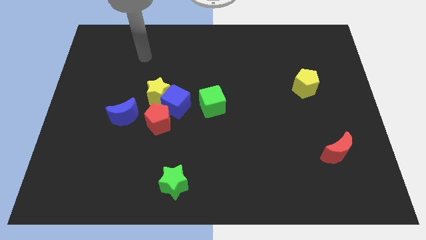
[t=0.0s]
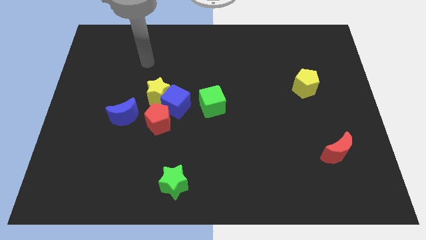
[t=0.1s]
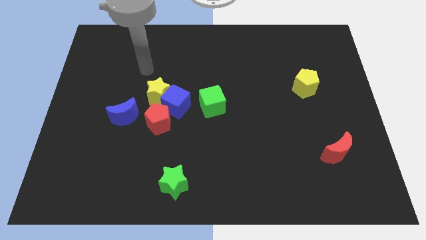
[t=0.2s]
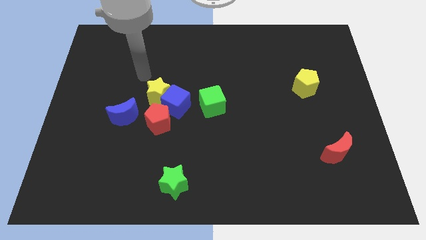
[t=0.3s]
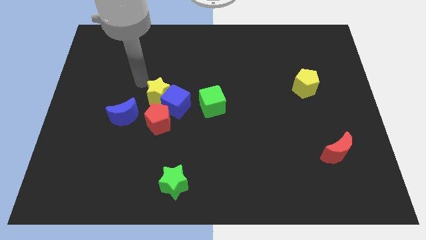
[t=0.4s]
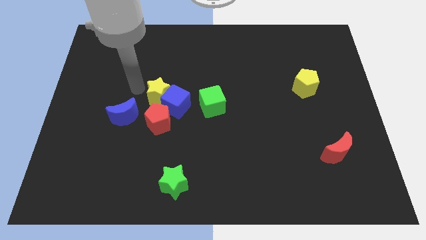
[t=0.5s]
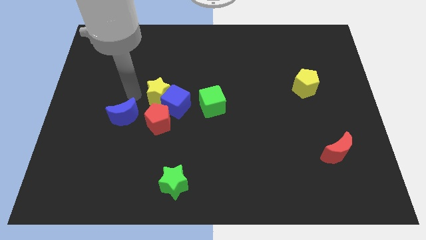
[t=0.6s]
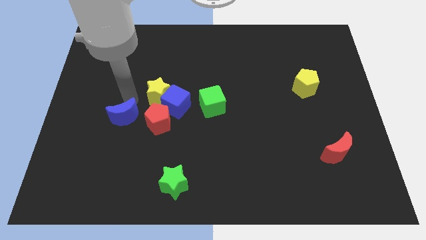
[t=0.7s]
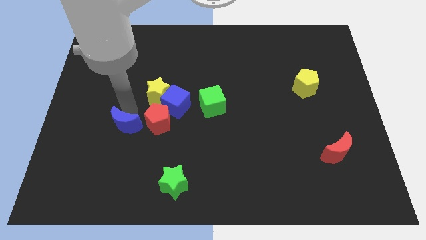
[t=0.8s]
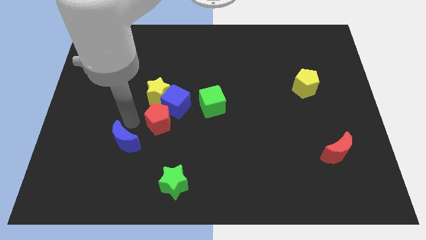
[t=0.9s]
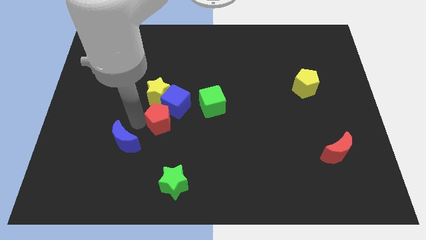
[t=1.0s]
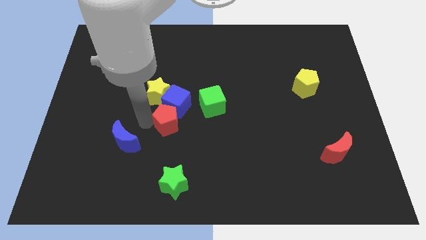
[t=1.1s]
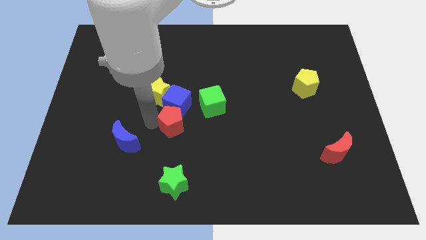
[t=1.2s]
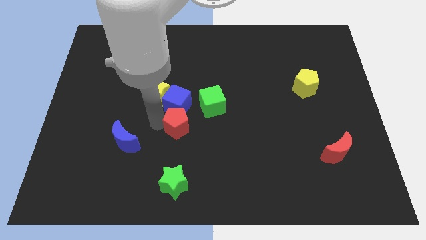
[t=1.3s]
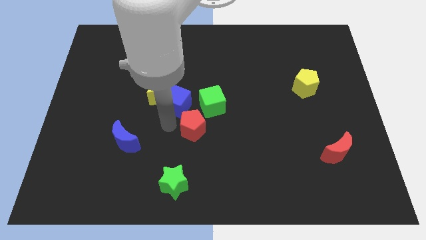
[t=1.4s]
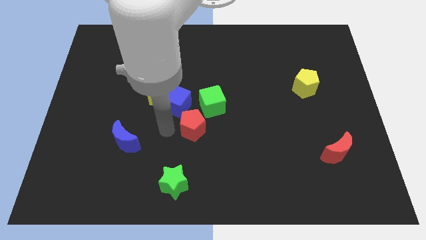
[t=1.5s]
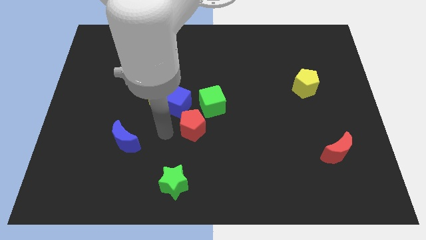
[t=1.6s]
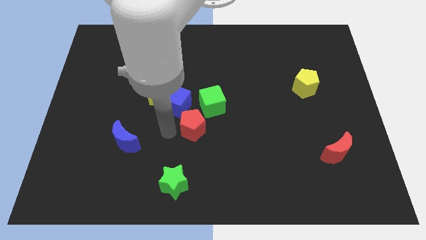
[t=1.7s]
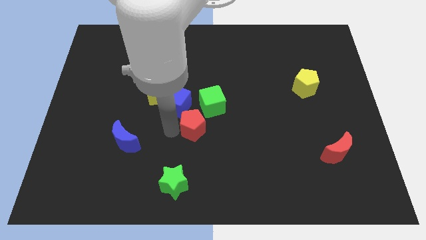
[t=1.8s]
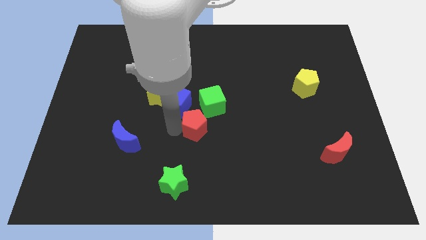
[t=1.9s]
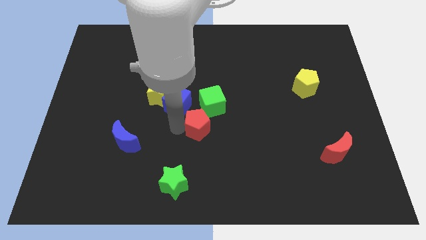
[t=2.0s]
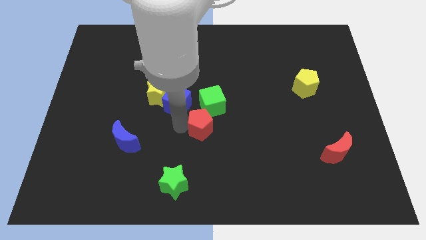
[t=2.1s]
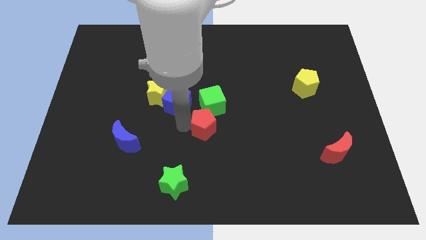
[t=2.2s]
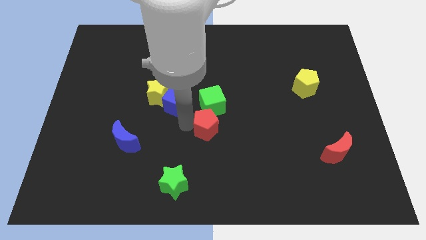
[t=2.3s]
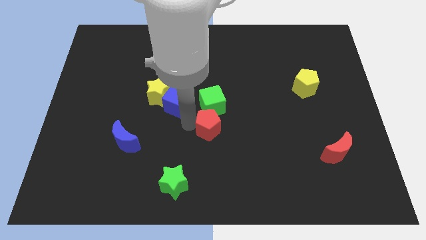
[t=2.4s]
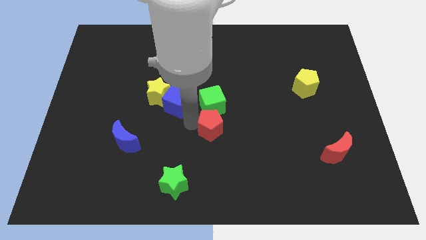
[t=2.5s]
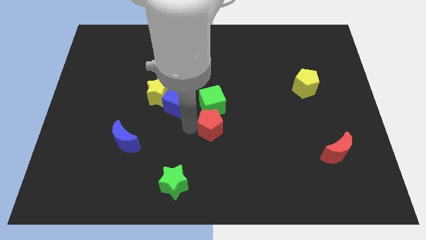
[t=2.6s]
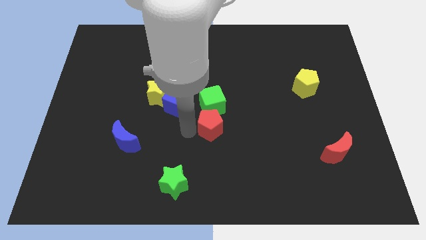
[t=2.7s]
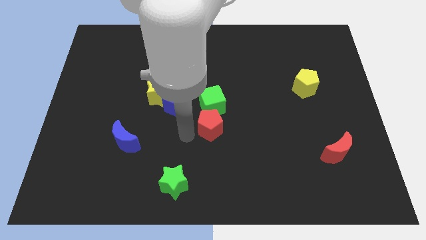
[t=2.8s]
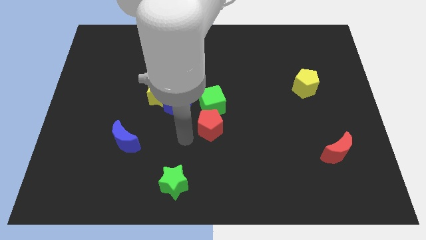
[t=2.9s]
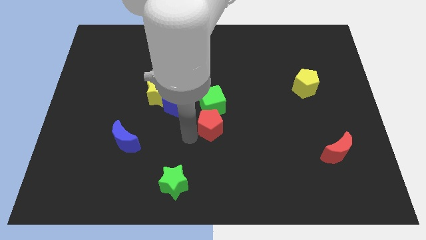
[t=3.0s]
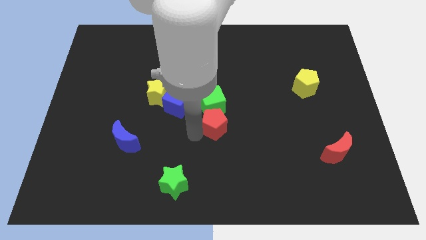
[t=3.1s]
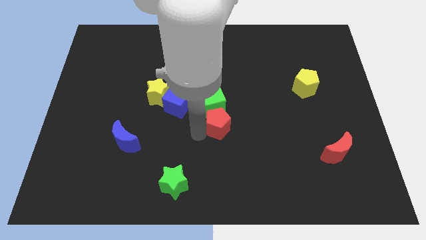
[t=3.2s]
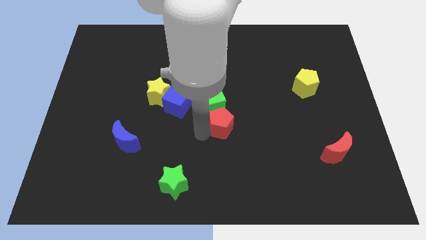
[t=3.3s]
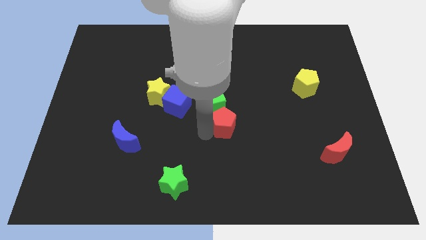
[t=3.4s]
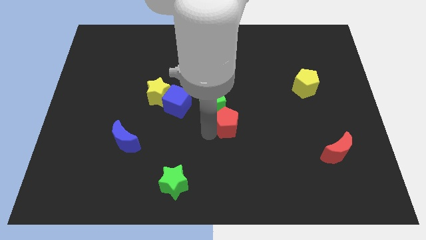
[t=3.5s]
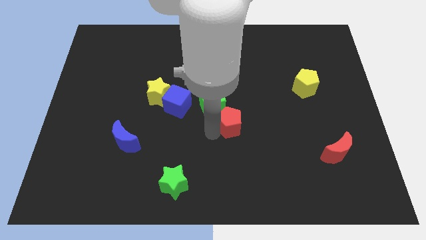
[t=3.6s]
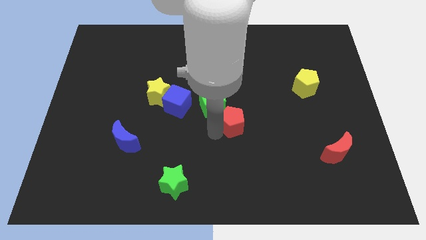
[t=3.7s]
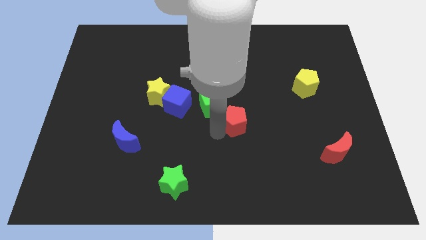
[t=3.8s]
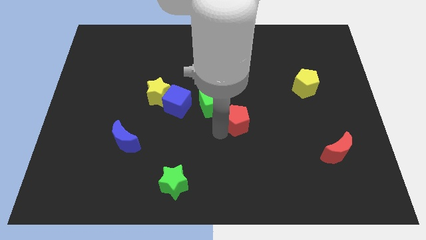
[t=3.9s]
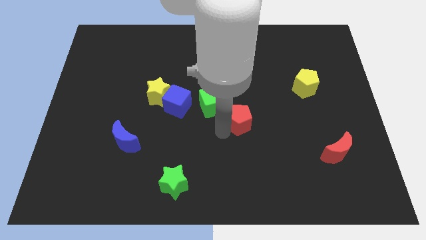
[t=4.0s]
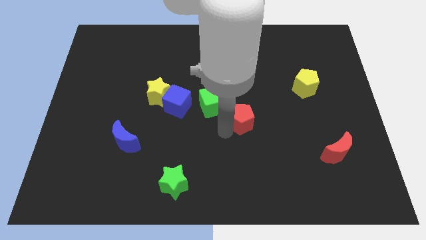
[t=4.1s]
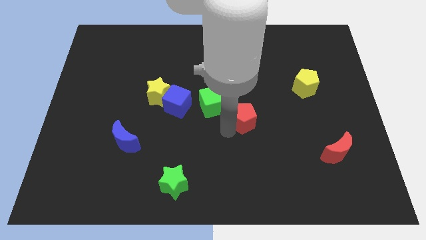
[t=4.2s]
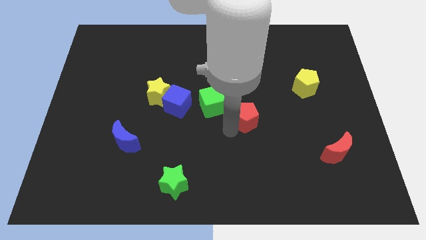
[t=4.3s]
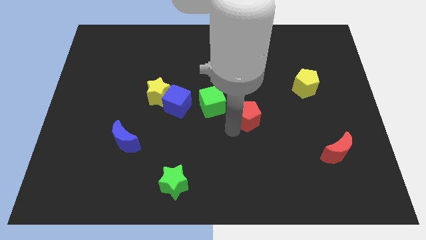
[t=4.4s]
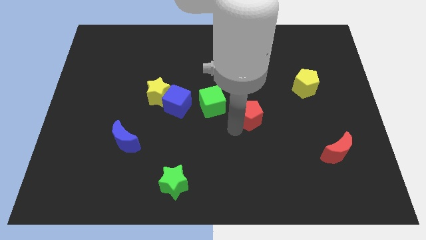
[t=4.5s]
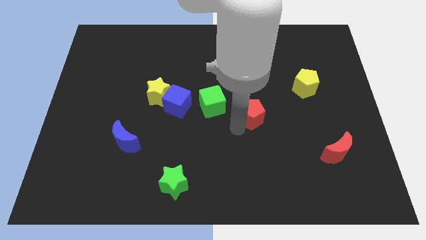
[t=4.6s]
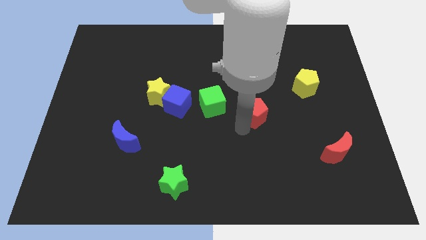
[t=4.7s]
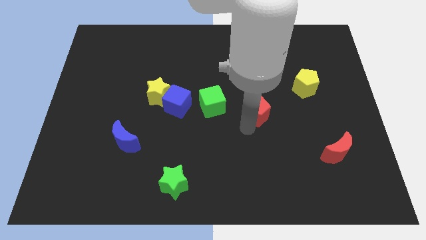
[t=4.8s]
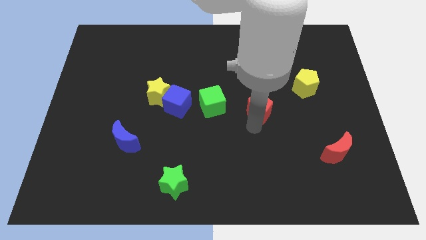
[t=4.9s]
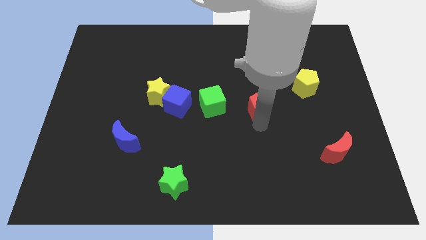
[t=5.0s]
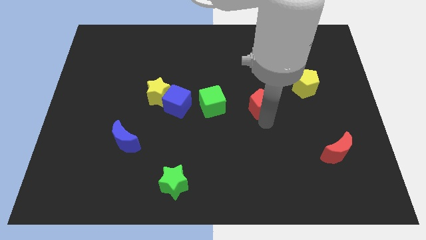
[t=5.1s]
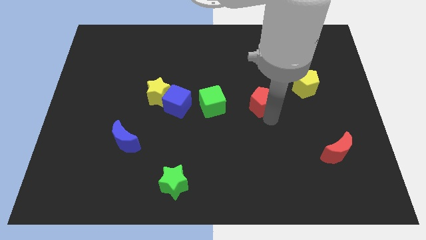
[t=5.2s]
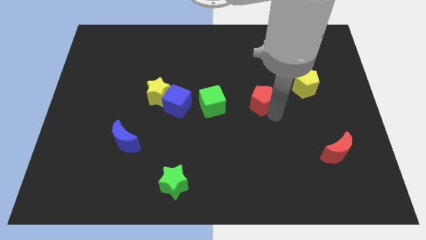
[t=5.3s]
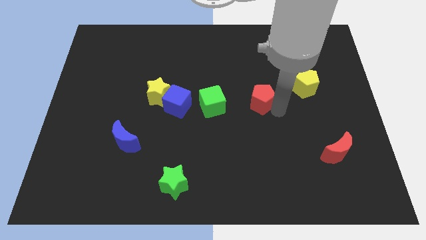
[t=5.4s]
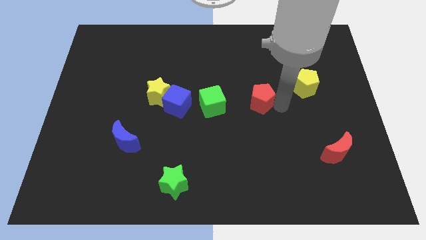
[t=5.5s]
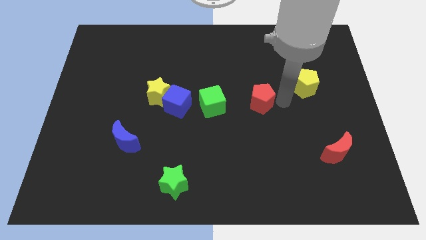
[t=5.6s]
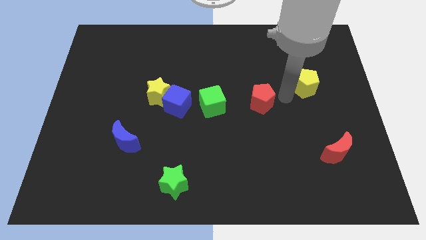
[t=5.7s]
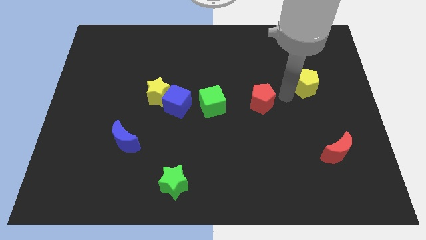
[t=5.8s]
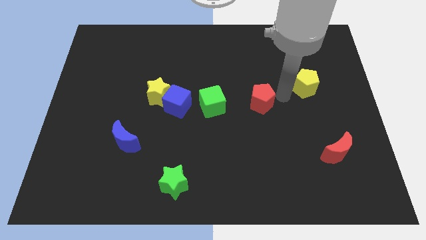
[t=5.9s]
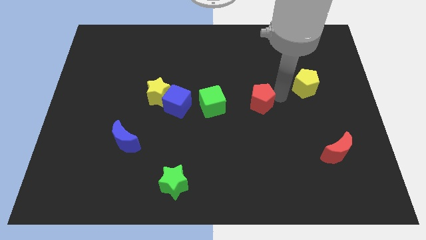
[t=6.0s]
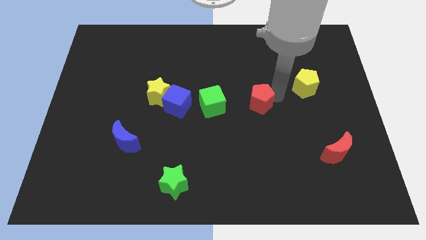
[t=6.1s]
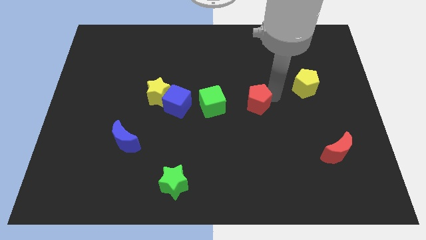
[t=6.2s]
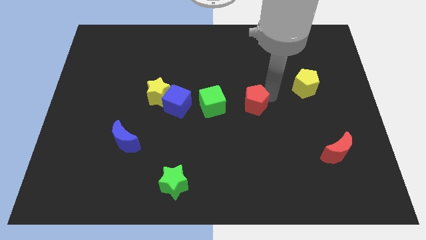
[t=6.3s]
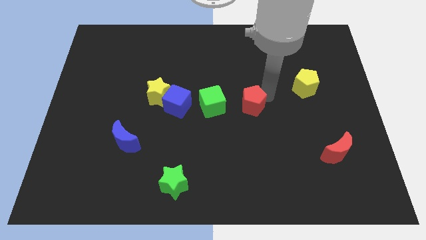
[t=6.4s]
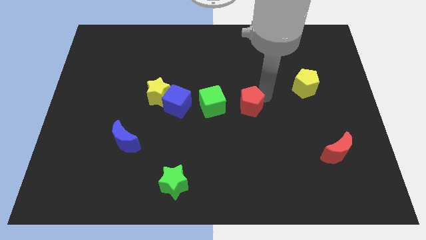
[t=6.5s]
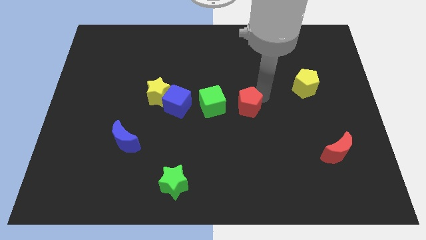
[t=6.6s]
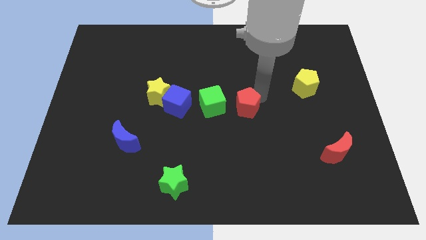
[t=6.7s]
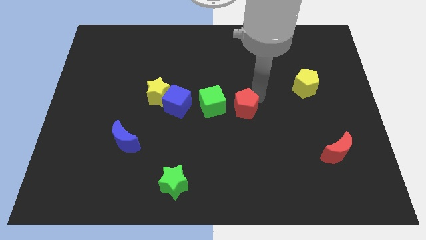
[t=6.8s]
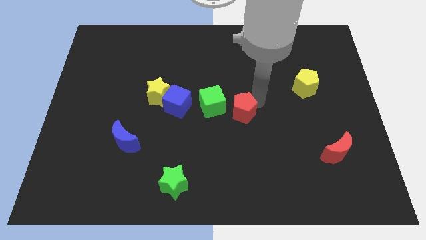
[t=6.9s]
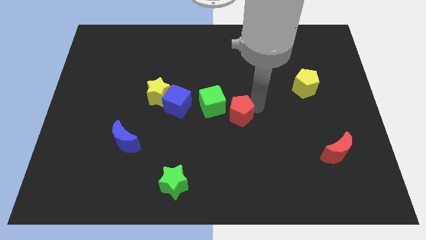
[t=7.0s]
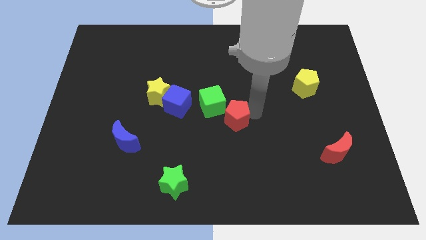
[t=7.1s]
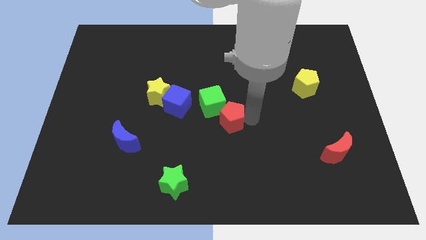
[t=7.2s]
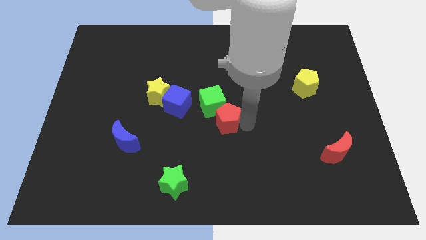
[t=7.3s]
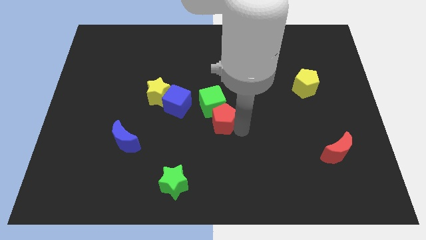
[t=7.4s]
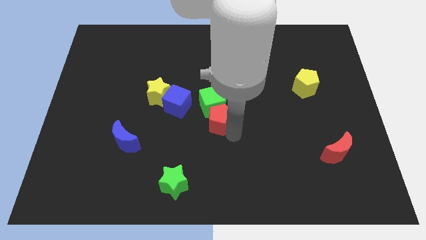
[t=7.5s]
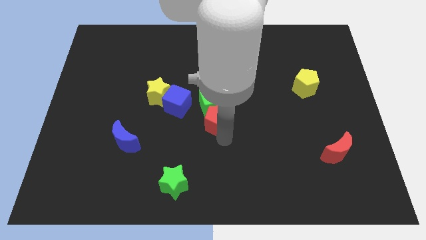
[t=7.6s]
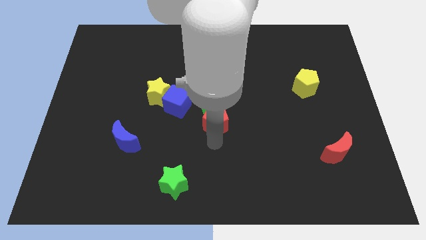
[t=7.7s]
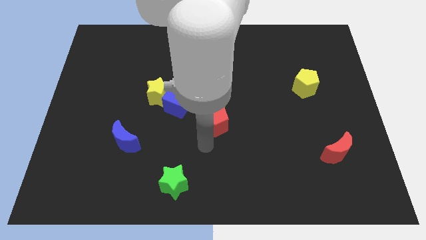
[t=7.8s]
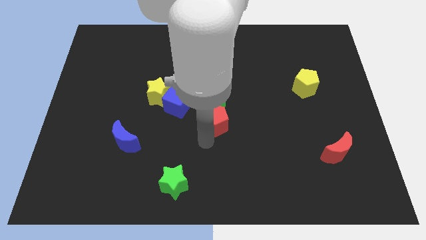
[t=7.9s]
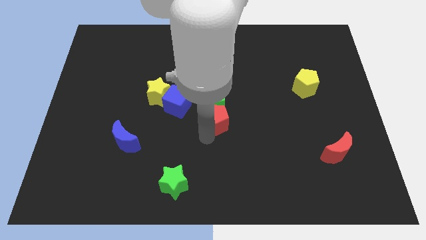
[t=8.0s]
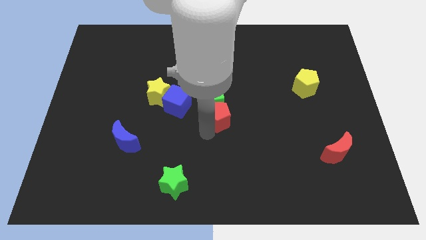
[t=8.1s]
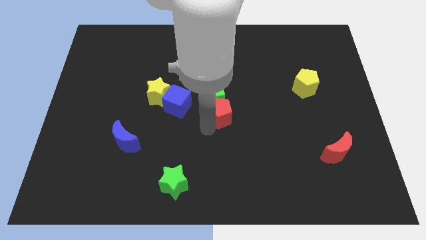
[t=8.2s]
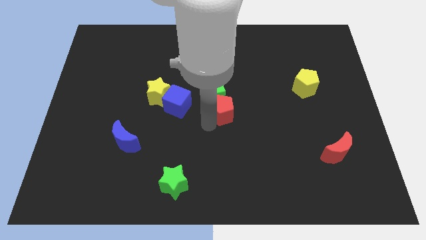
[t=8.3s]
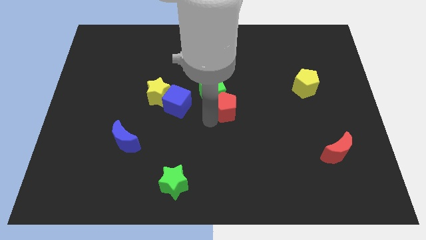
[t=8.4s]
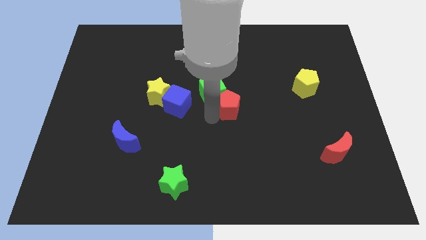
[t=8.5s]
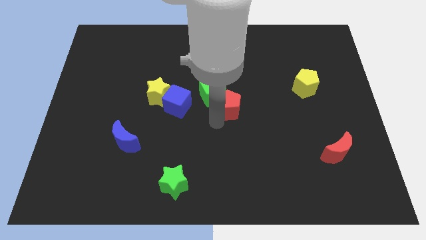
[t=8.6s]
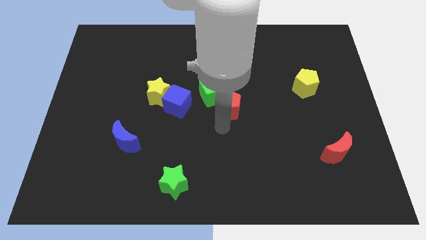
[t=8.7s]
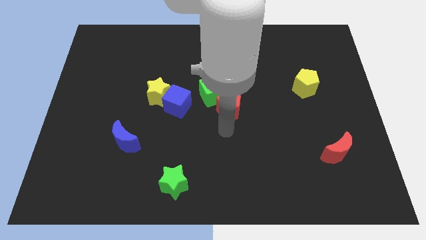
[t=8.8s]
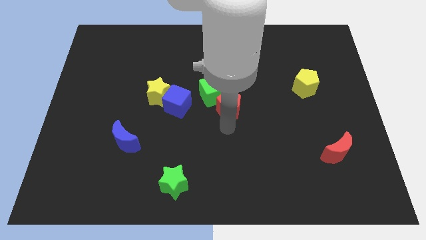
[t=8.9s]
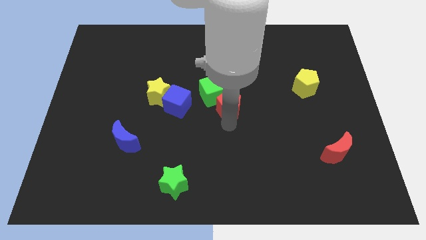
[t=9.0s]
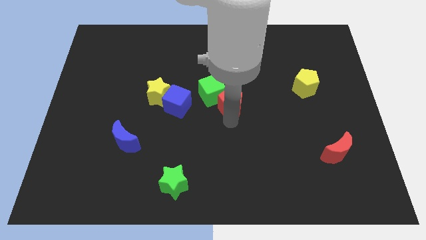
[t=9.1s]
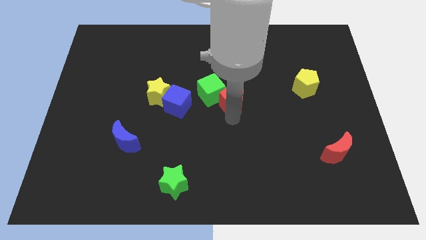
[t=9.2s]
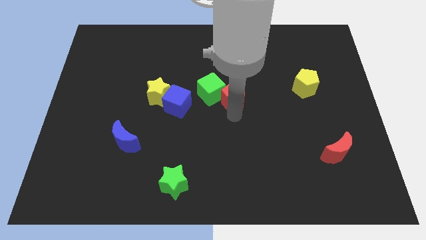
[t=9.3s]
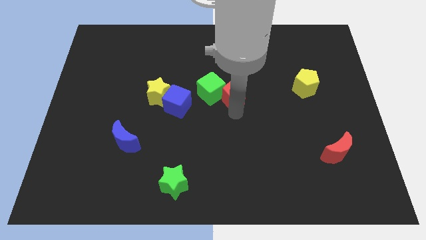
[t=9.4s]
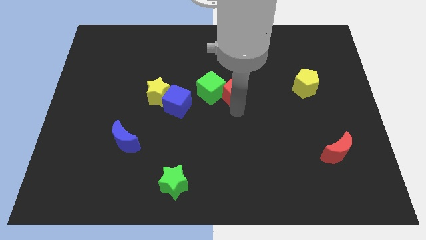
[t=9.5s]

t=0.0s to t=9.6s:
move the red pentagon diagonally up and to the right of the green cube
